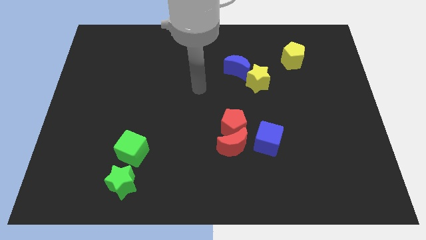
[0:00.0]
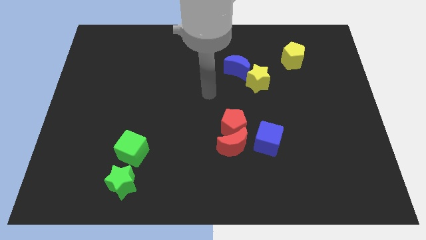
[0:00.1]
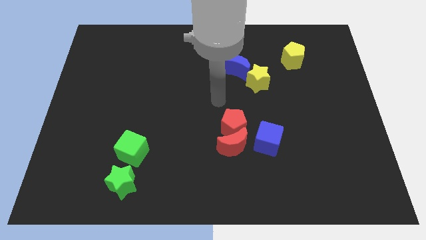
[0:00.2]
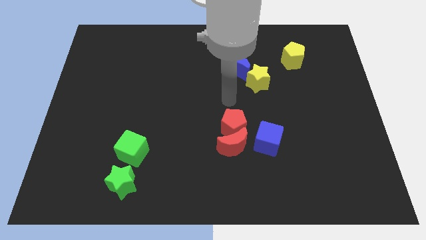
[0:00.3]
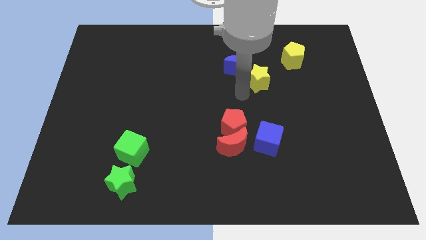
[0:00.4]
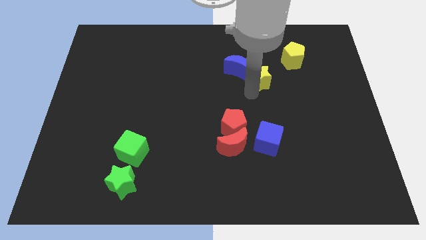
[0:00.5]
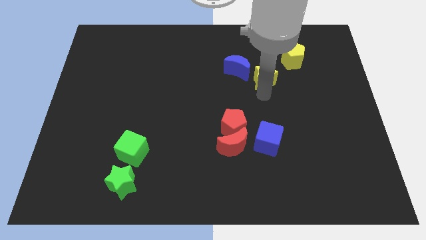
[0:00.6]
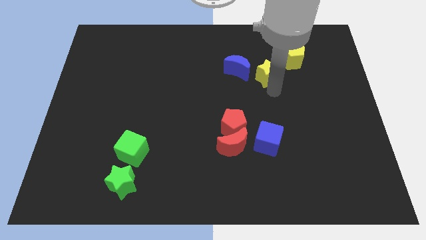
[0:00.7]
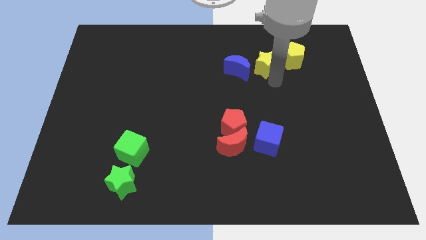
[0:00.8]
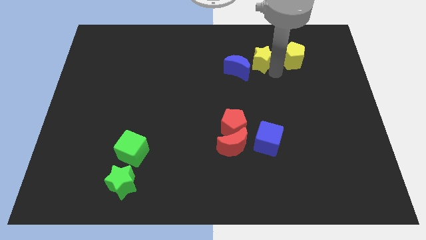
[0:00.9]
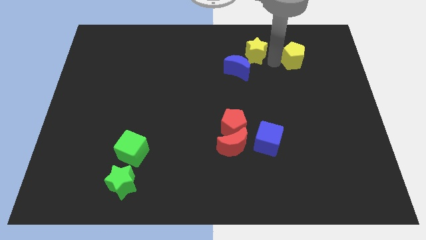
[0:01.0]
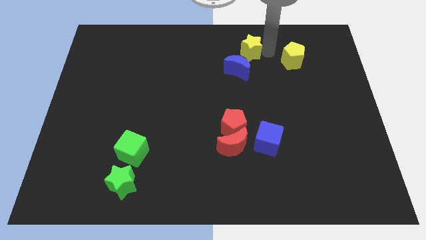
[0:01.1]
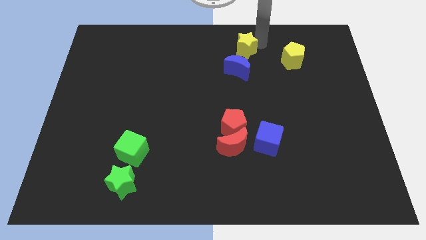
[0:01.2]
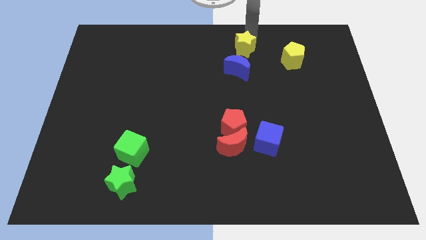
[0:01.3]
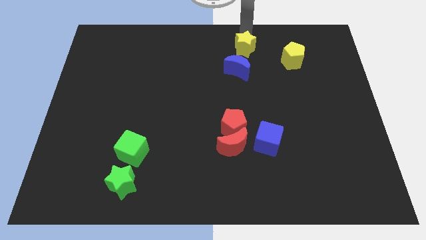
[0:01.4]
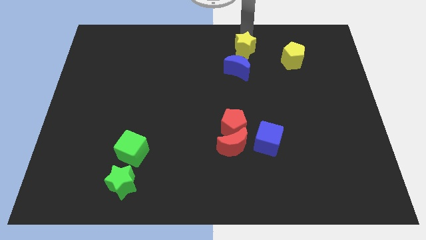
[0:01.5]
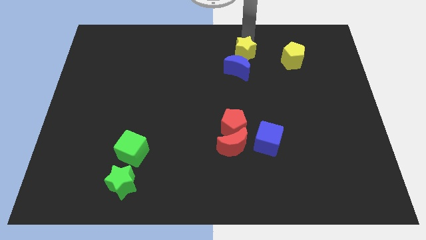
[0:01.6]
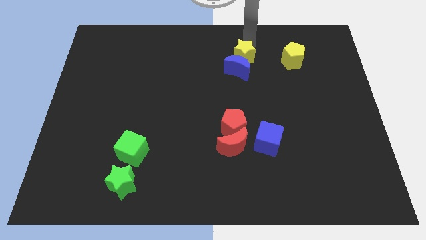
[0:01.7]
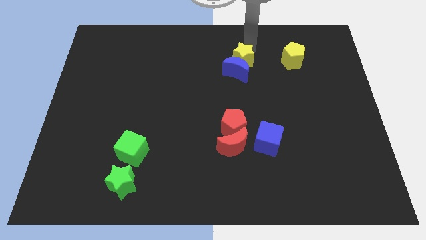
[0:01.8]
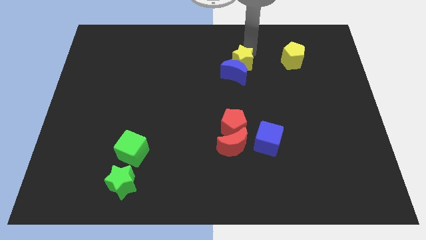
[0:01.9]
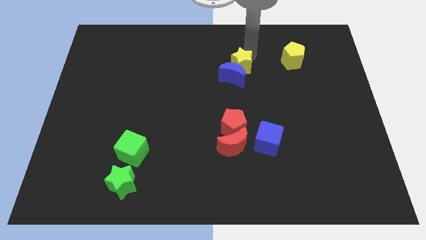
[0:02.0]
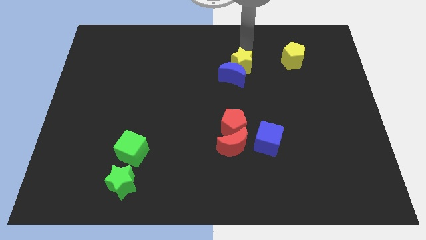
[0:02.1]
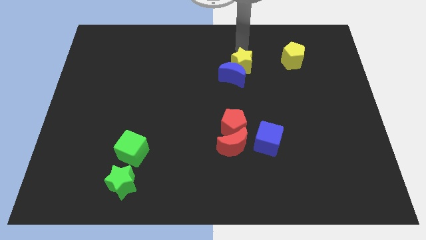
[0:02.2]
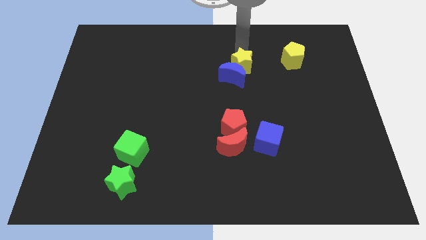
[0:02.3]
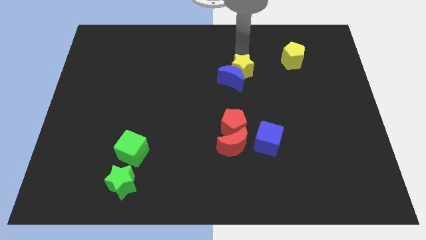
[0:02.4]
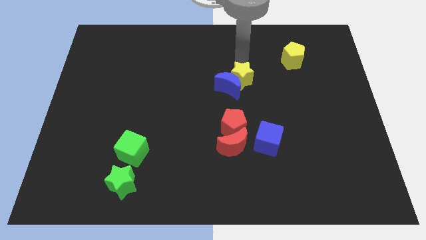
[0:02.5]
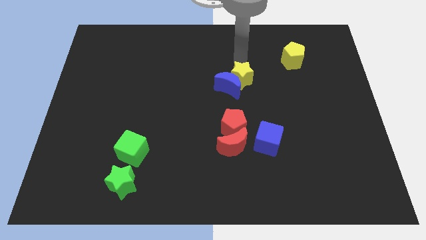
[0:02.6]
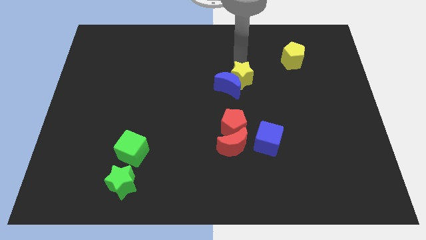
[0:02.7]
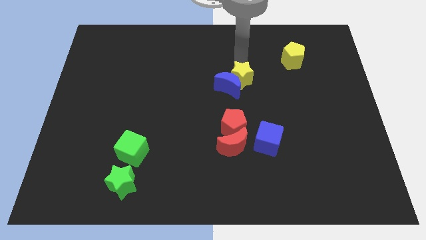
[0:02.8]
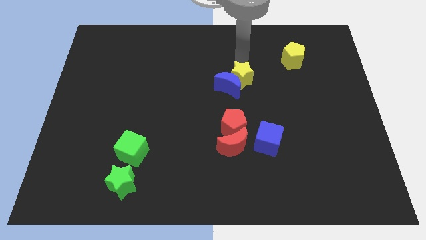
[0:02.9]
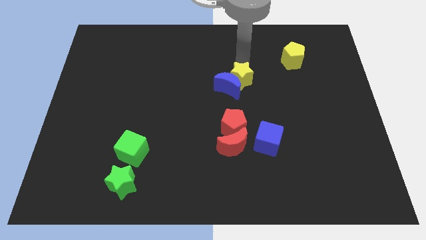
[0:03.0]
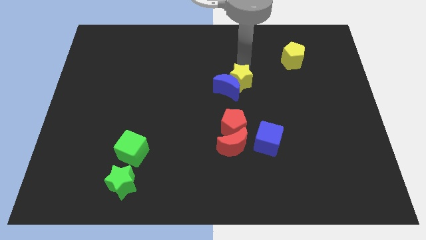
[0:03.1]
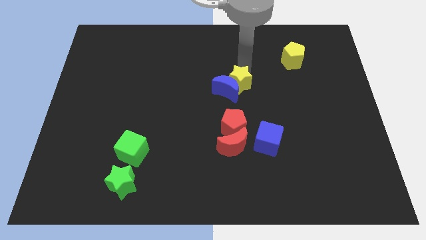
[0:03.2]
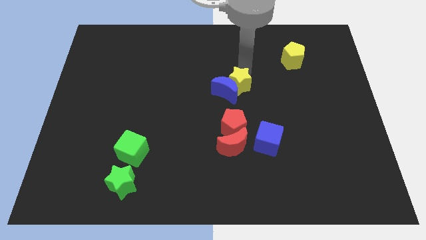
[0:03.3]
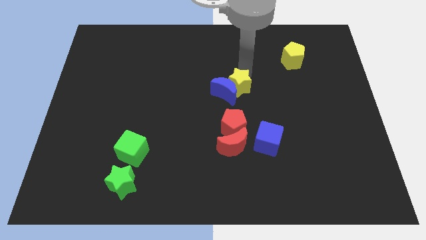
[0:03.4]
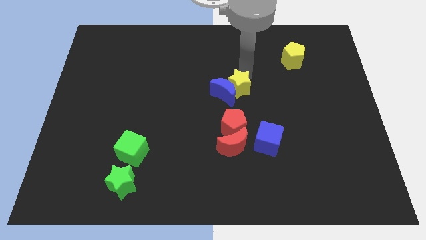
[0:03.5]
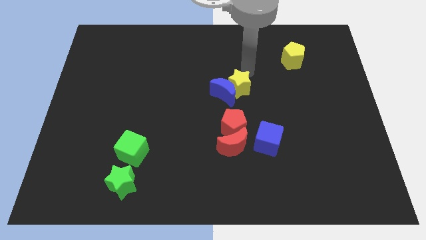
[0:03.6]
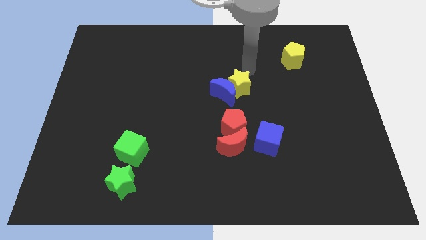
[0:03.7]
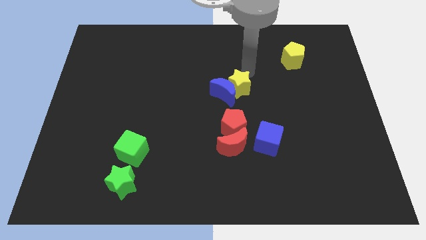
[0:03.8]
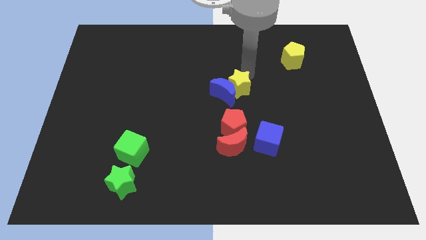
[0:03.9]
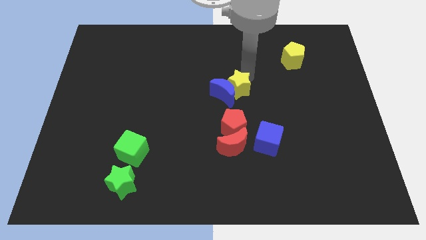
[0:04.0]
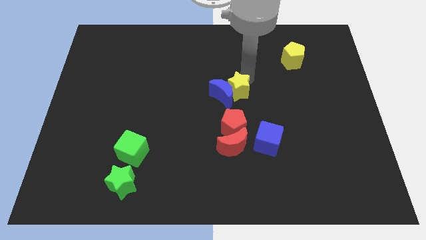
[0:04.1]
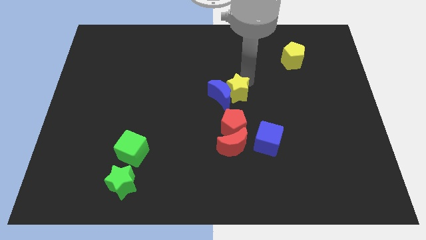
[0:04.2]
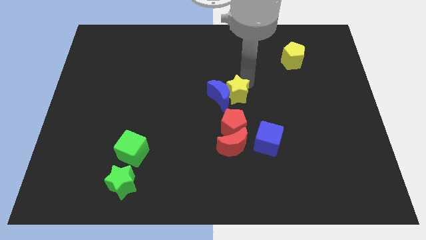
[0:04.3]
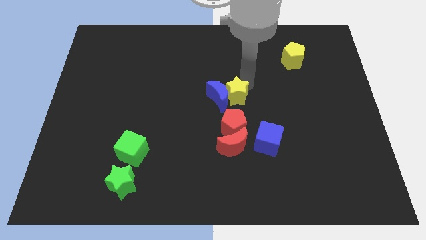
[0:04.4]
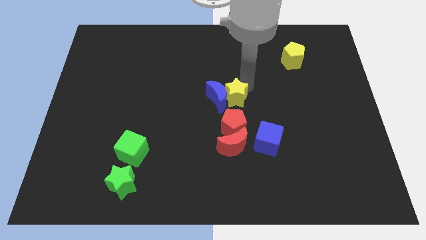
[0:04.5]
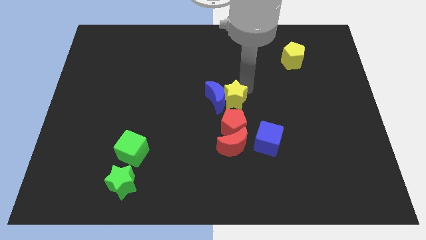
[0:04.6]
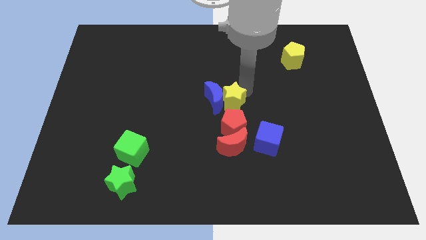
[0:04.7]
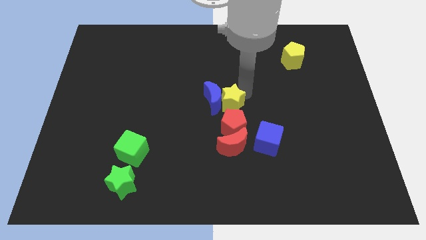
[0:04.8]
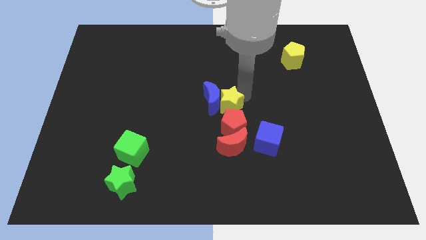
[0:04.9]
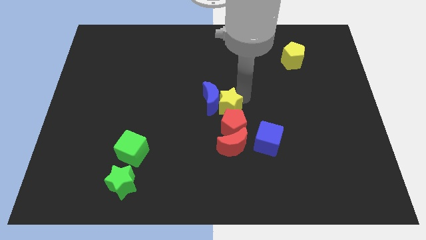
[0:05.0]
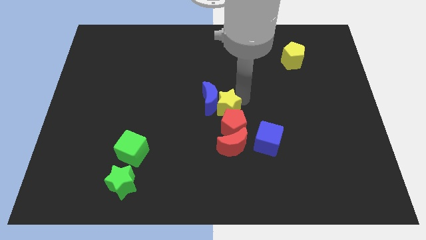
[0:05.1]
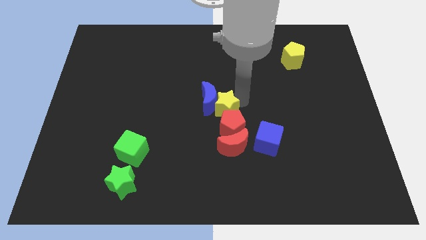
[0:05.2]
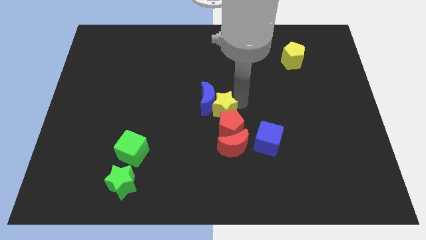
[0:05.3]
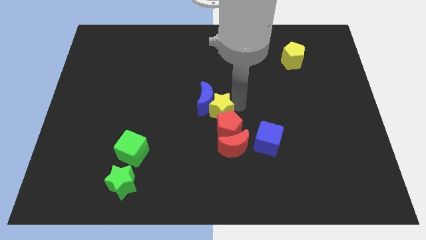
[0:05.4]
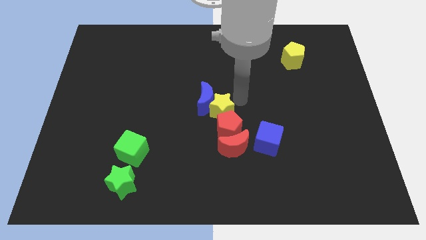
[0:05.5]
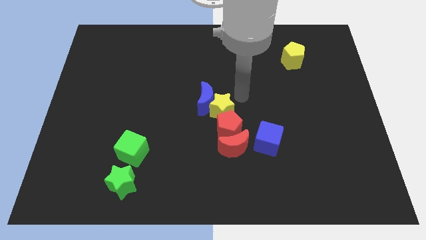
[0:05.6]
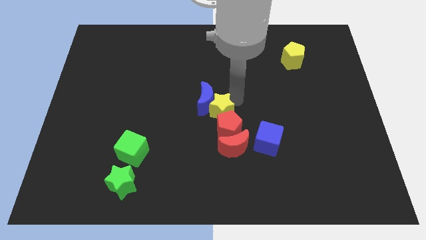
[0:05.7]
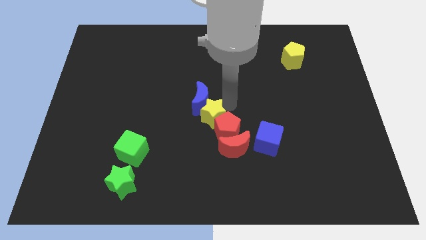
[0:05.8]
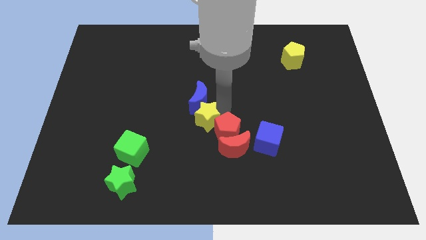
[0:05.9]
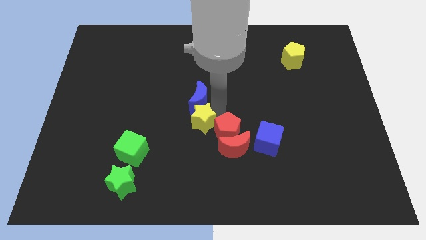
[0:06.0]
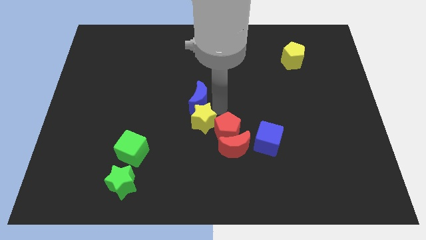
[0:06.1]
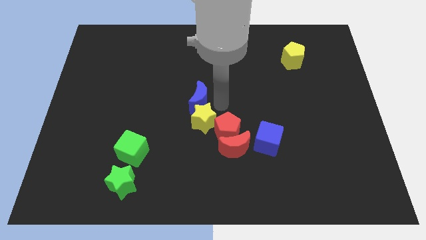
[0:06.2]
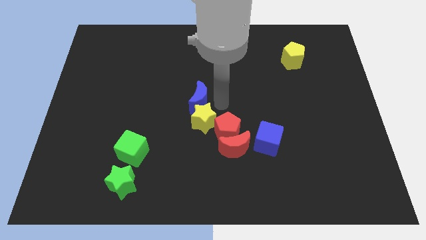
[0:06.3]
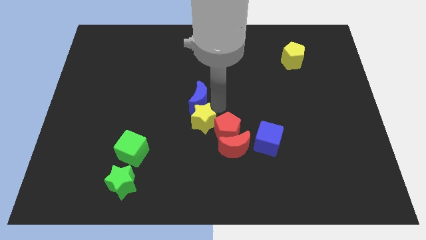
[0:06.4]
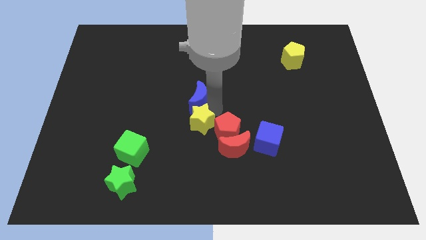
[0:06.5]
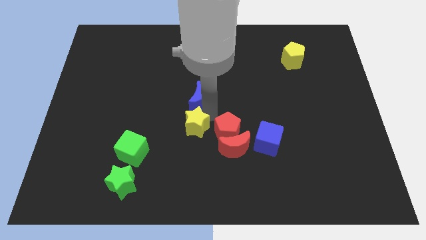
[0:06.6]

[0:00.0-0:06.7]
move the yellow star down and to the left diagonally

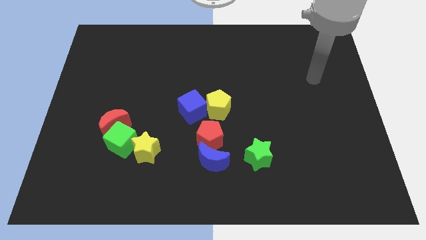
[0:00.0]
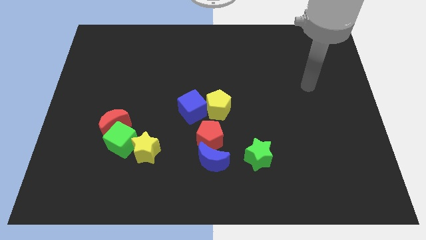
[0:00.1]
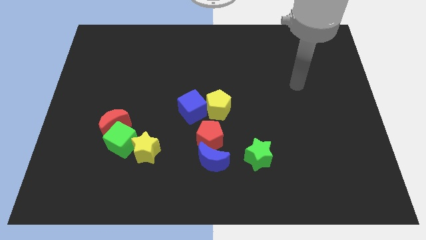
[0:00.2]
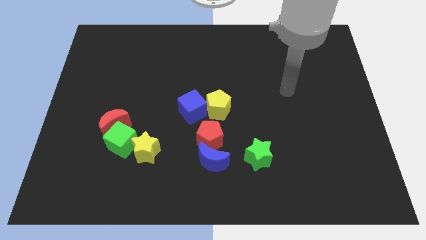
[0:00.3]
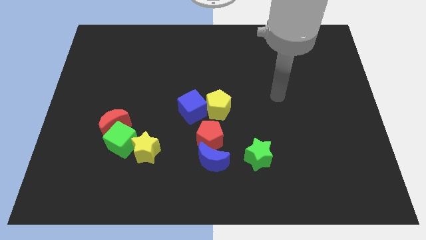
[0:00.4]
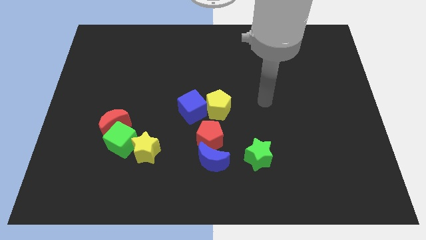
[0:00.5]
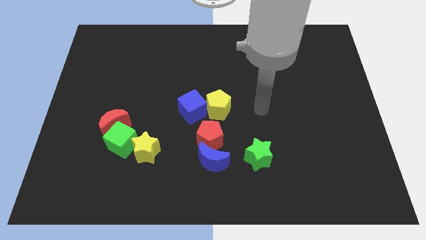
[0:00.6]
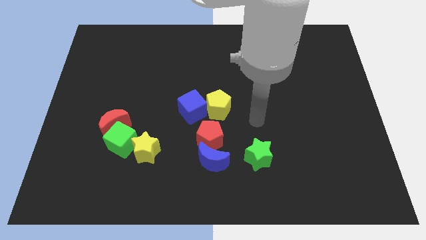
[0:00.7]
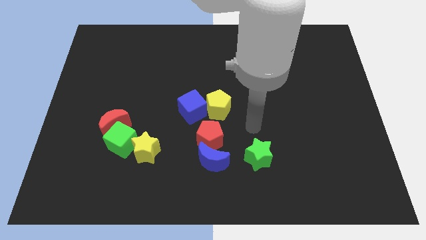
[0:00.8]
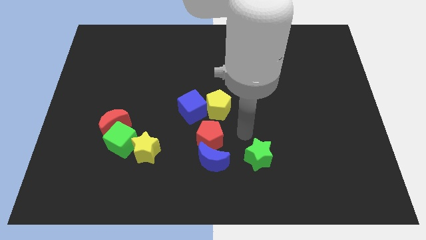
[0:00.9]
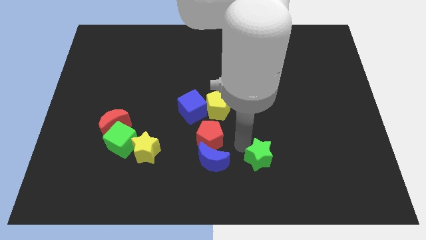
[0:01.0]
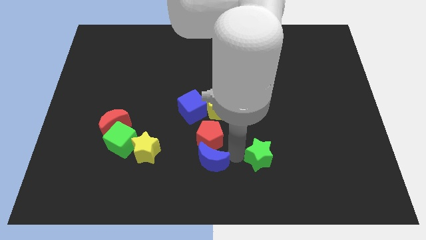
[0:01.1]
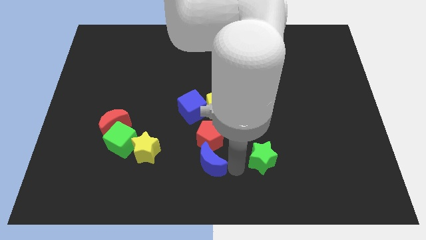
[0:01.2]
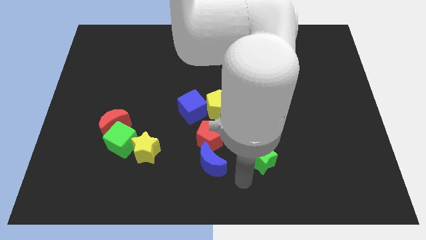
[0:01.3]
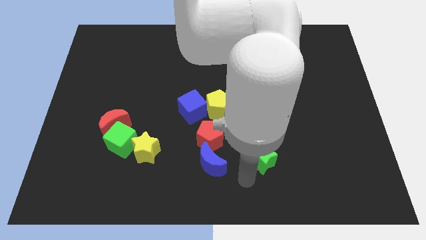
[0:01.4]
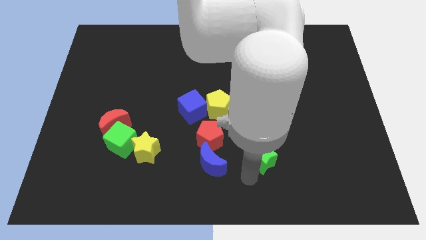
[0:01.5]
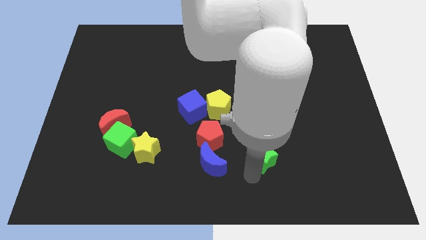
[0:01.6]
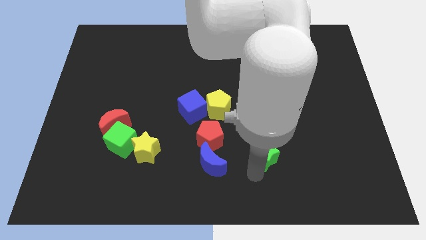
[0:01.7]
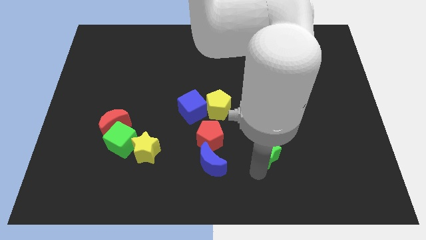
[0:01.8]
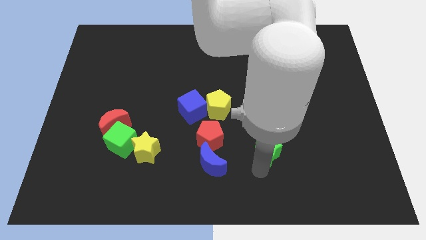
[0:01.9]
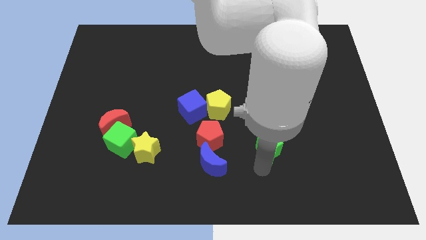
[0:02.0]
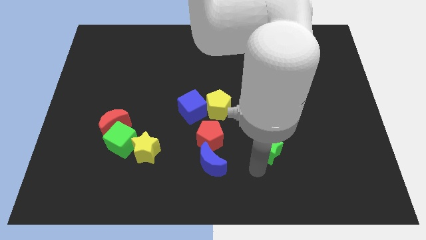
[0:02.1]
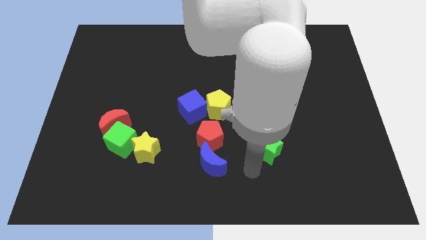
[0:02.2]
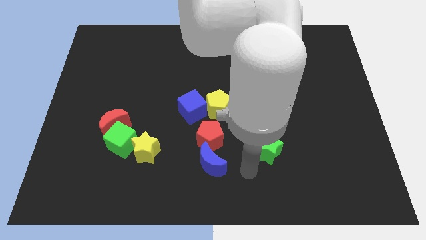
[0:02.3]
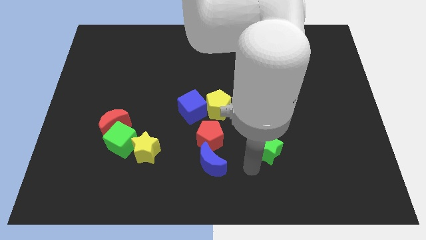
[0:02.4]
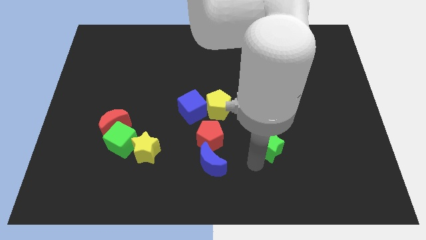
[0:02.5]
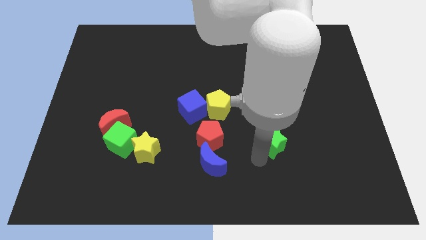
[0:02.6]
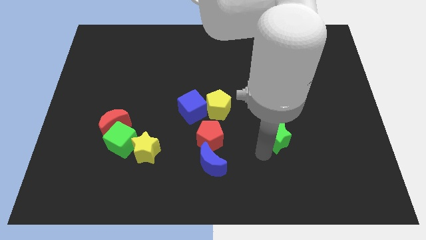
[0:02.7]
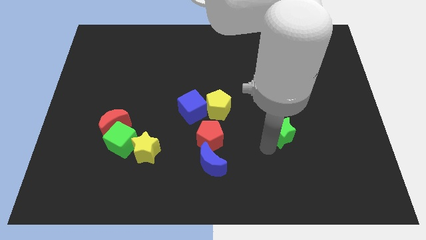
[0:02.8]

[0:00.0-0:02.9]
slide the green star up and to the right slightly
